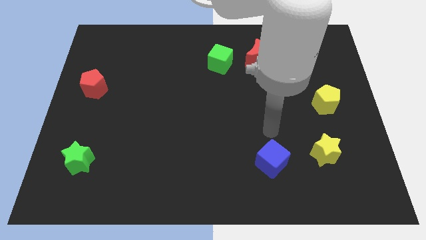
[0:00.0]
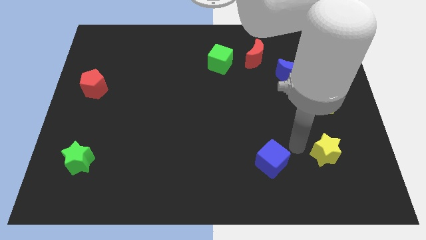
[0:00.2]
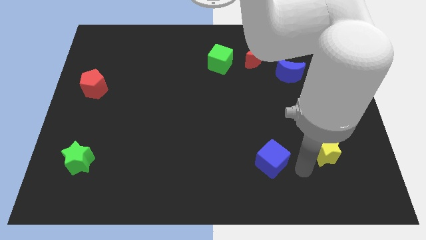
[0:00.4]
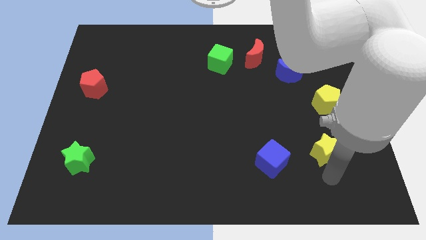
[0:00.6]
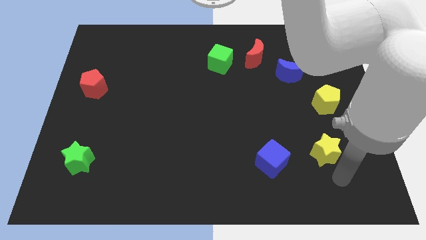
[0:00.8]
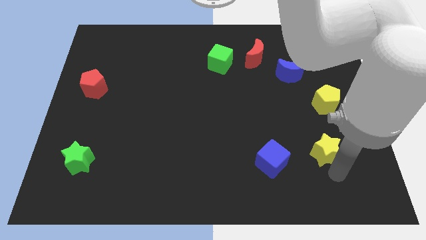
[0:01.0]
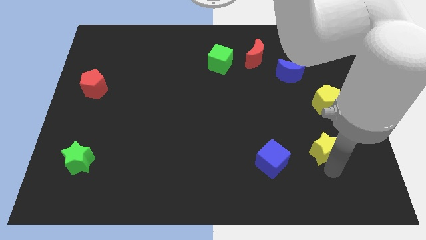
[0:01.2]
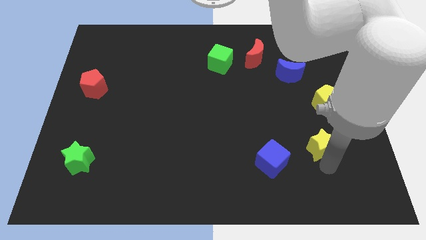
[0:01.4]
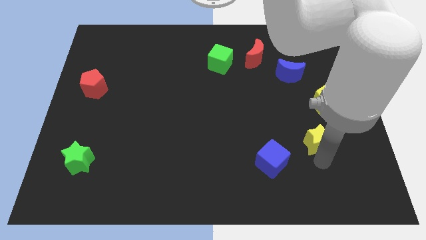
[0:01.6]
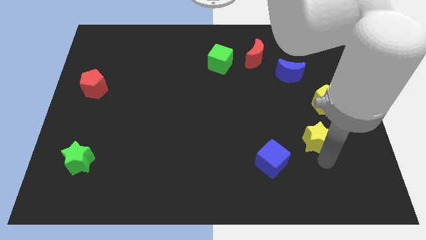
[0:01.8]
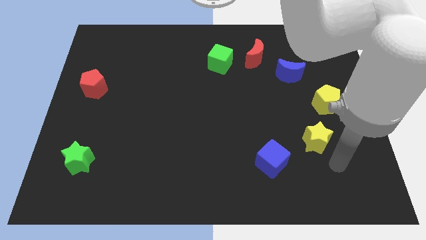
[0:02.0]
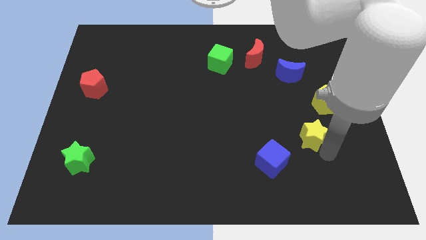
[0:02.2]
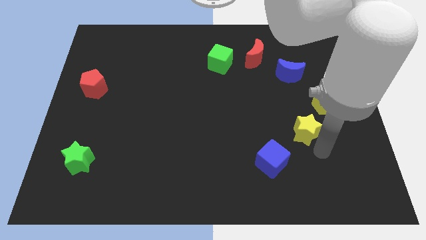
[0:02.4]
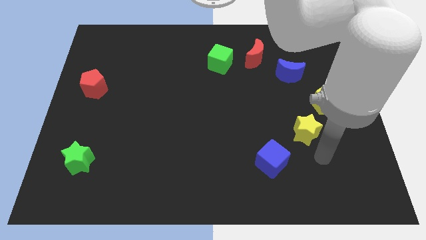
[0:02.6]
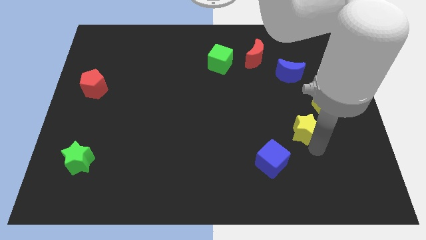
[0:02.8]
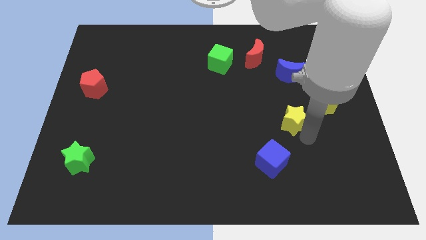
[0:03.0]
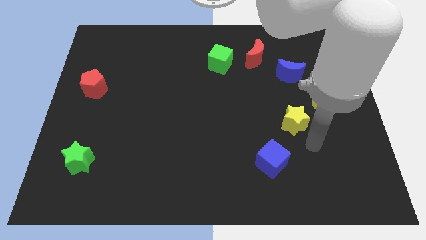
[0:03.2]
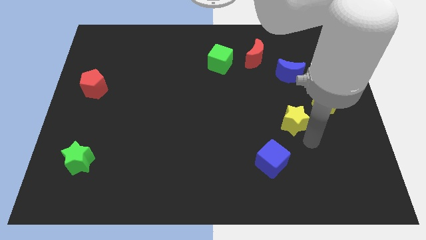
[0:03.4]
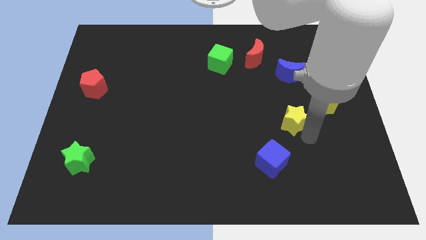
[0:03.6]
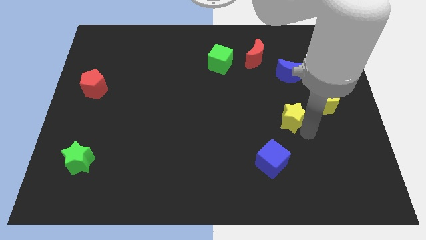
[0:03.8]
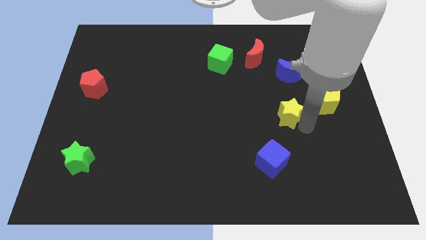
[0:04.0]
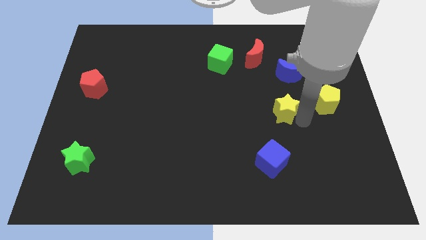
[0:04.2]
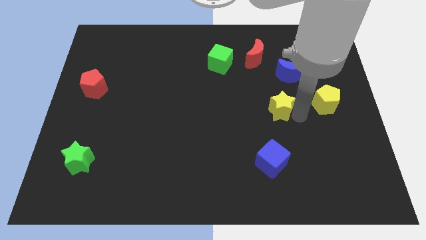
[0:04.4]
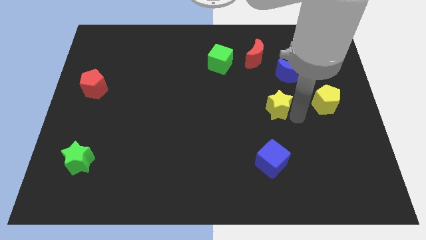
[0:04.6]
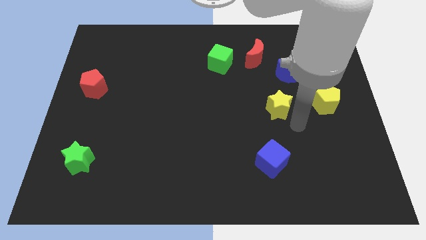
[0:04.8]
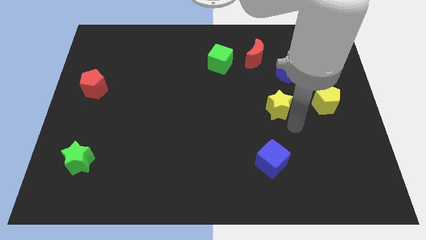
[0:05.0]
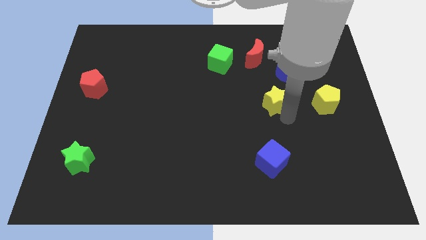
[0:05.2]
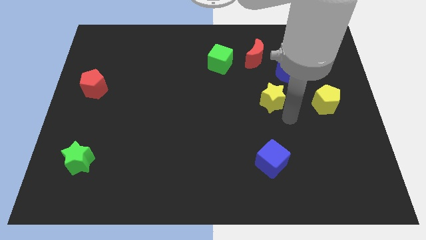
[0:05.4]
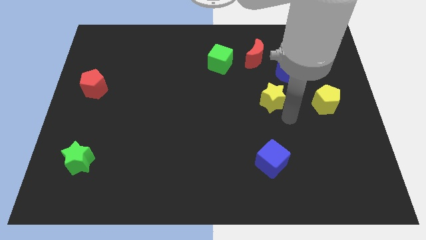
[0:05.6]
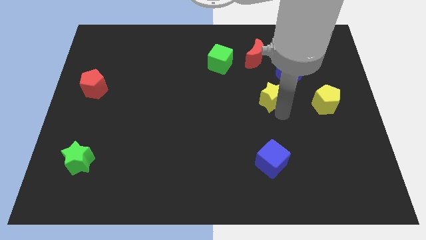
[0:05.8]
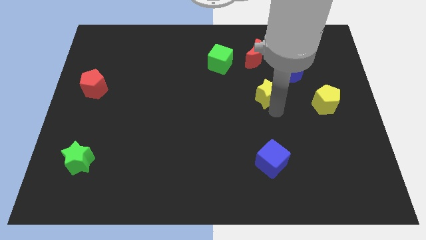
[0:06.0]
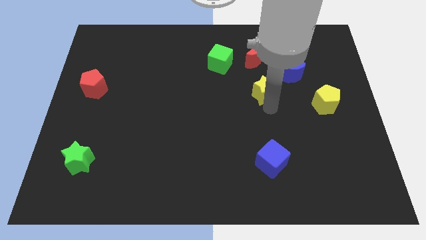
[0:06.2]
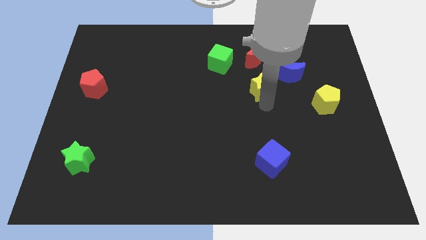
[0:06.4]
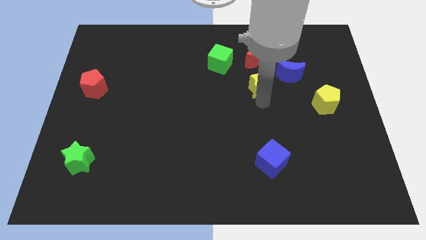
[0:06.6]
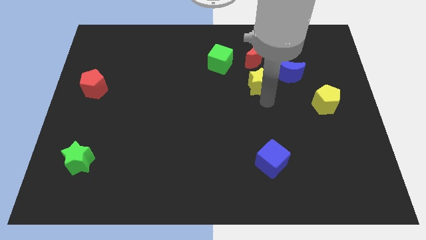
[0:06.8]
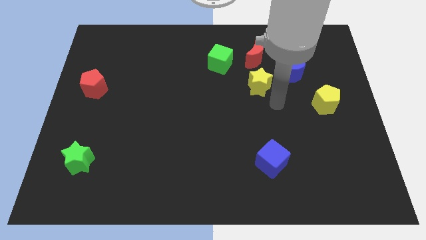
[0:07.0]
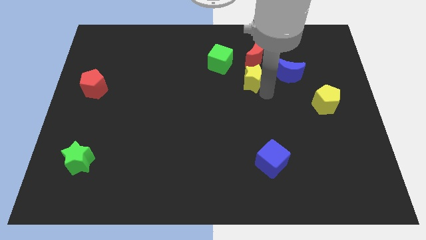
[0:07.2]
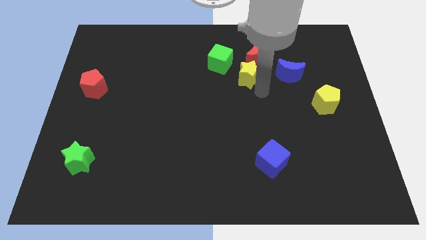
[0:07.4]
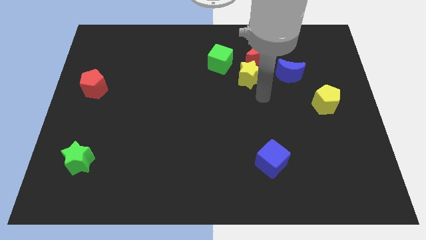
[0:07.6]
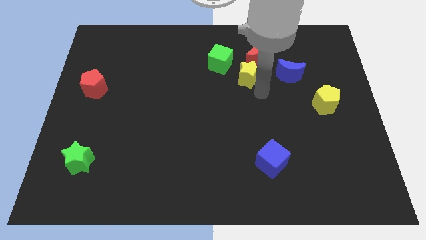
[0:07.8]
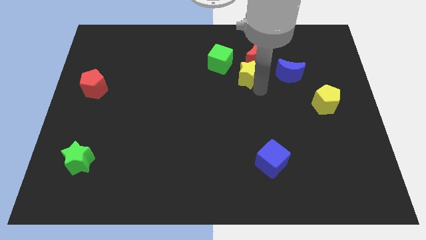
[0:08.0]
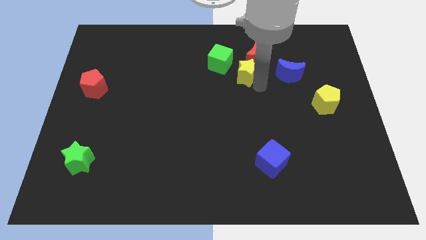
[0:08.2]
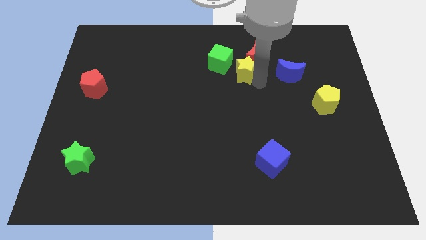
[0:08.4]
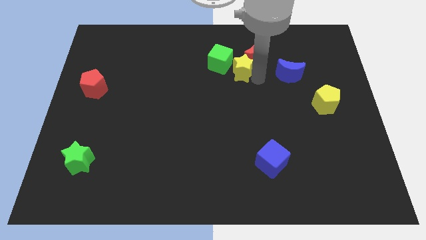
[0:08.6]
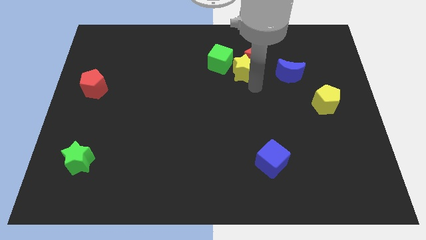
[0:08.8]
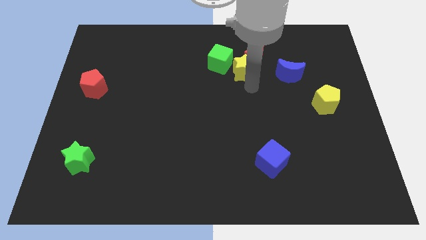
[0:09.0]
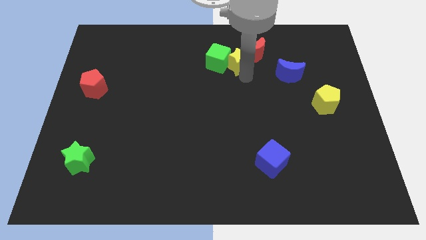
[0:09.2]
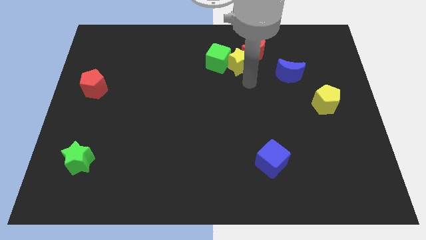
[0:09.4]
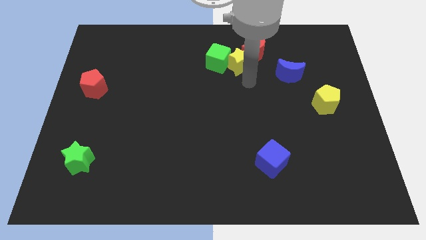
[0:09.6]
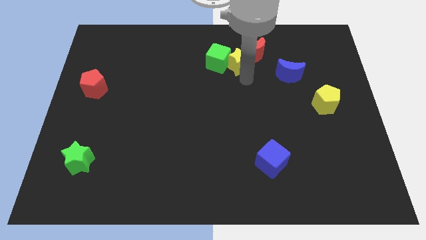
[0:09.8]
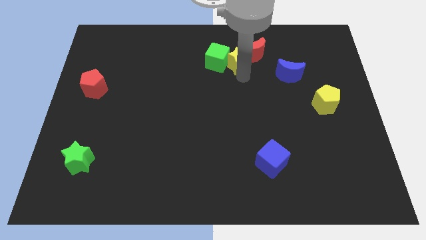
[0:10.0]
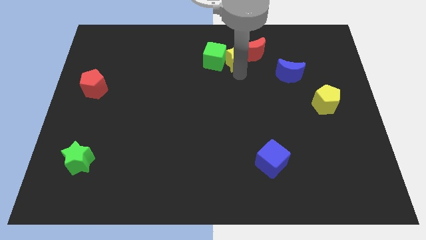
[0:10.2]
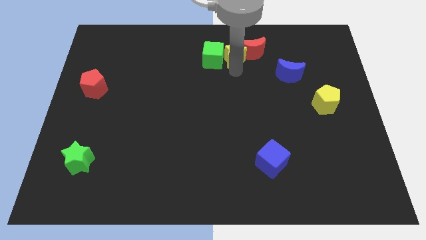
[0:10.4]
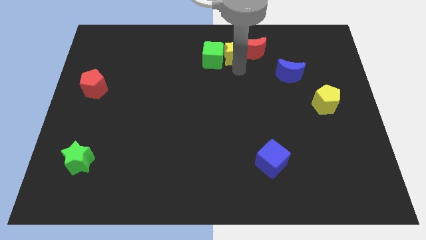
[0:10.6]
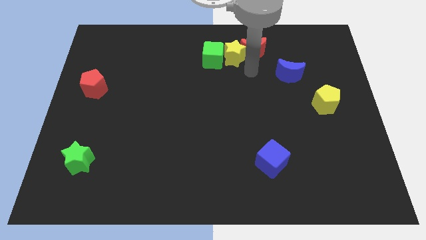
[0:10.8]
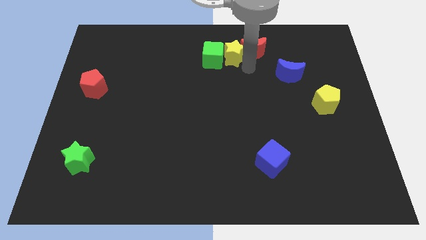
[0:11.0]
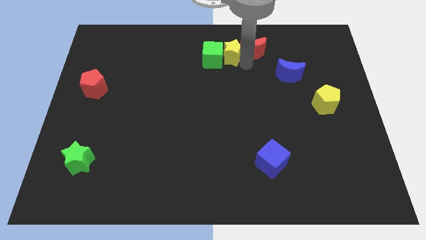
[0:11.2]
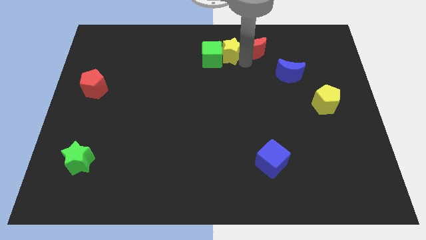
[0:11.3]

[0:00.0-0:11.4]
slide the yellow star to the towards your base
